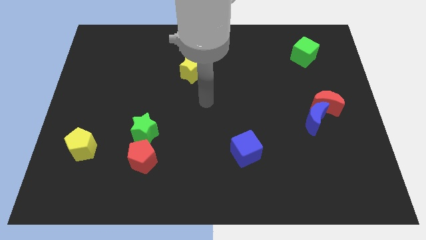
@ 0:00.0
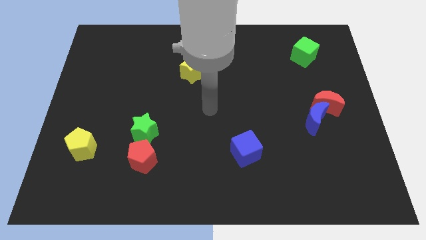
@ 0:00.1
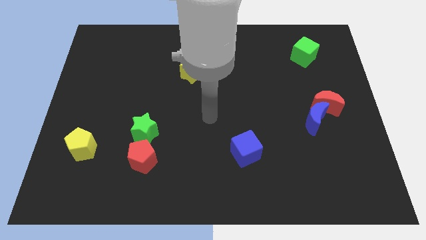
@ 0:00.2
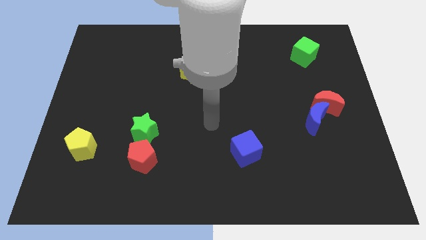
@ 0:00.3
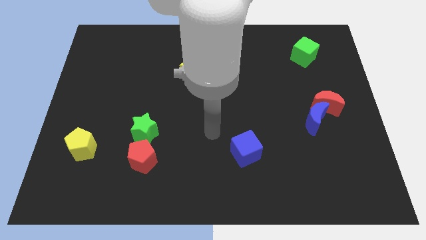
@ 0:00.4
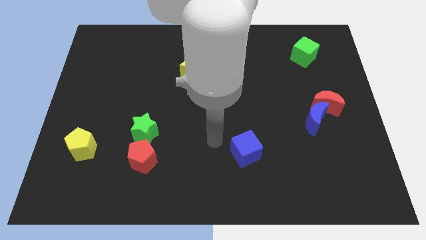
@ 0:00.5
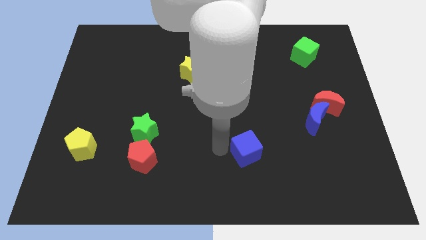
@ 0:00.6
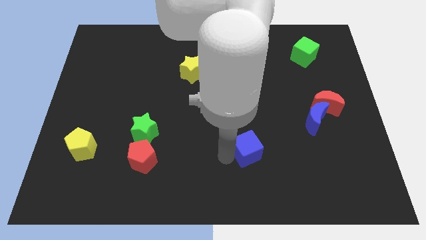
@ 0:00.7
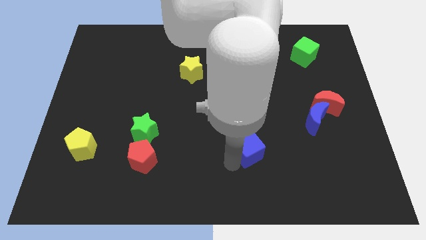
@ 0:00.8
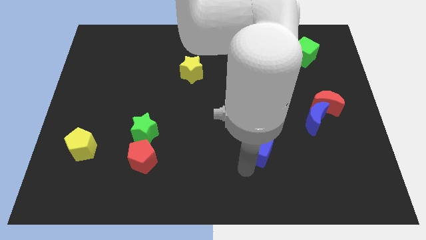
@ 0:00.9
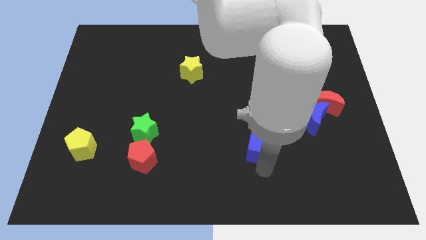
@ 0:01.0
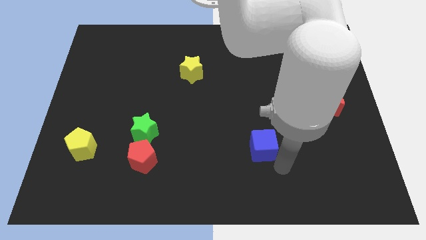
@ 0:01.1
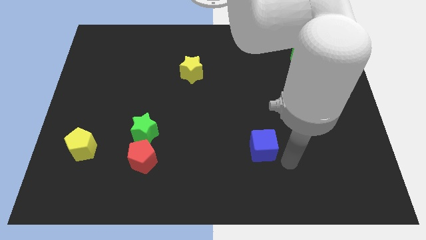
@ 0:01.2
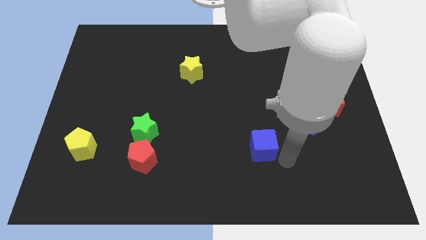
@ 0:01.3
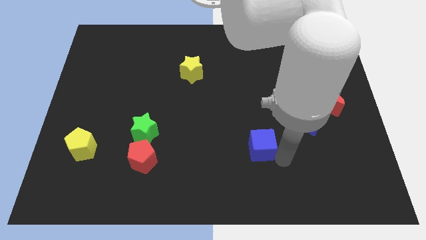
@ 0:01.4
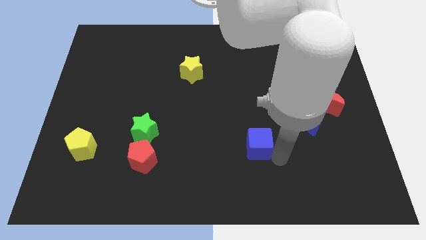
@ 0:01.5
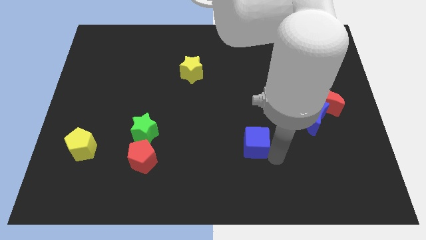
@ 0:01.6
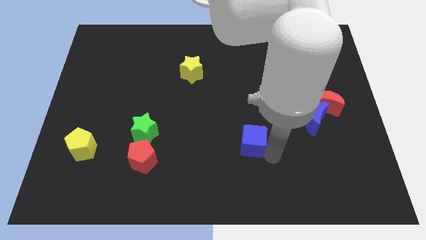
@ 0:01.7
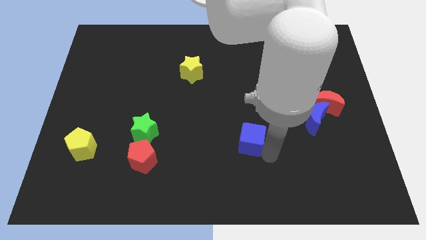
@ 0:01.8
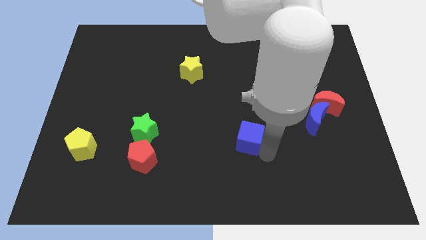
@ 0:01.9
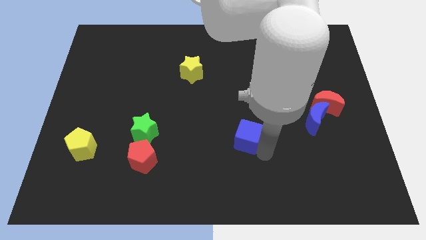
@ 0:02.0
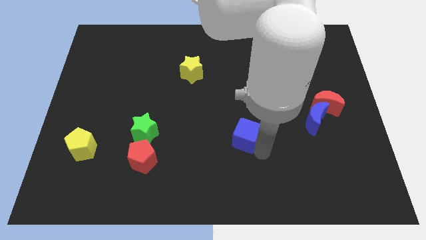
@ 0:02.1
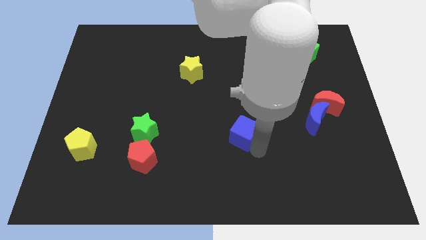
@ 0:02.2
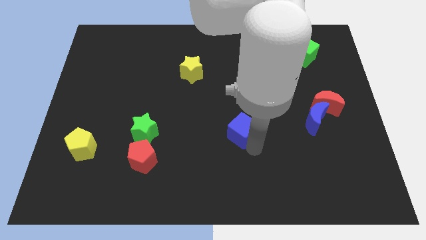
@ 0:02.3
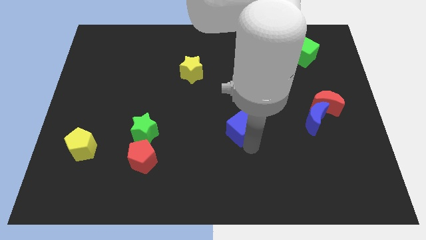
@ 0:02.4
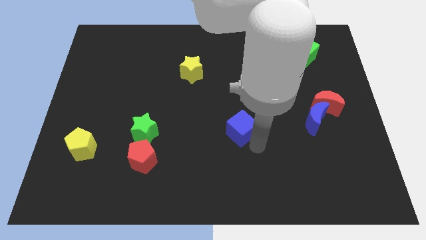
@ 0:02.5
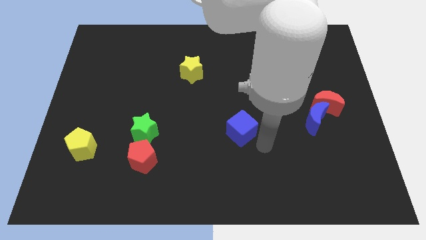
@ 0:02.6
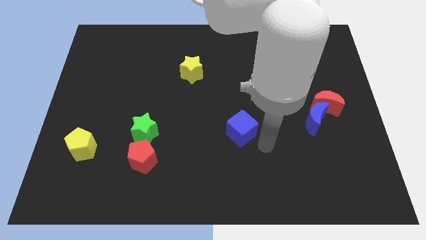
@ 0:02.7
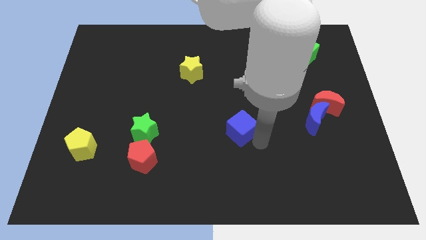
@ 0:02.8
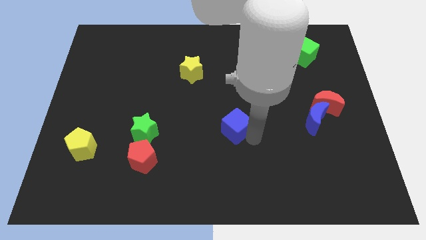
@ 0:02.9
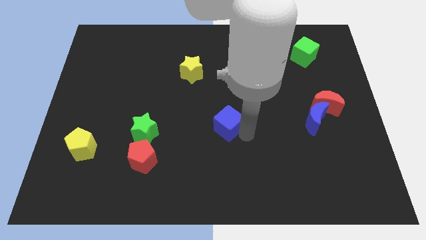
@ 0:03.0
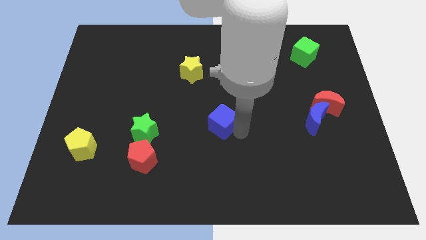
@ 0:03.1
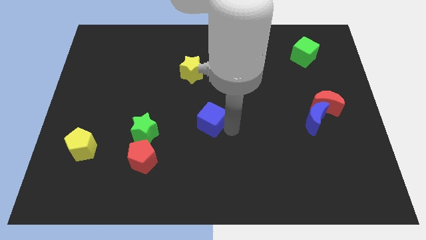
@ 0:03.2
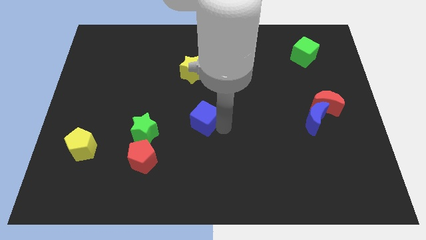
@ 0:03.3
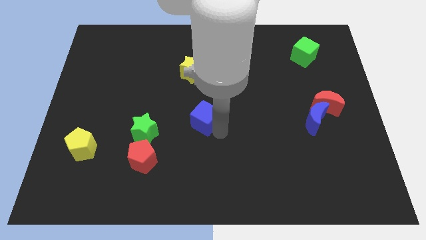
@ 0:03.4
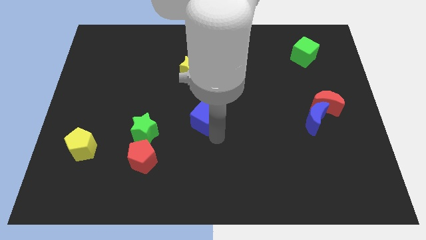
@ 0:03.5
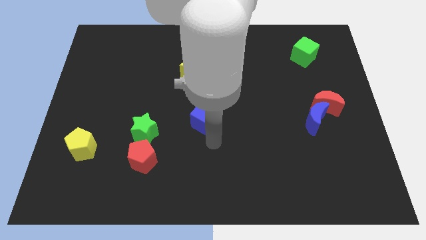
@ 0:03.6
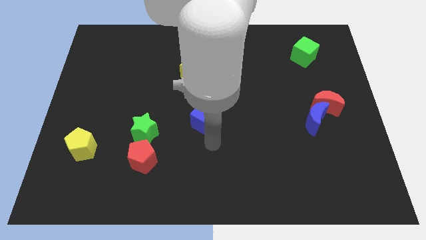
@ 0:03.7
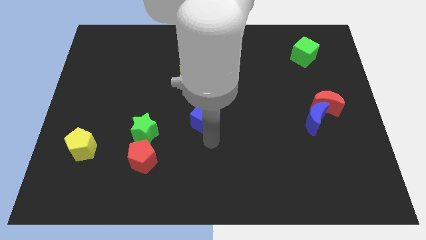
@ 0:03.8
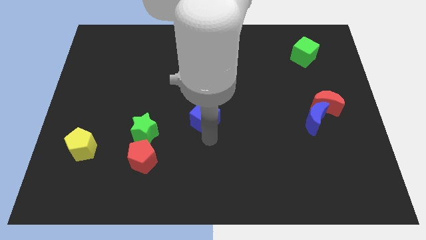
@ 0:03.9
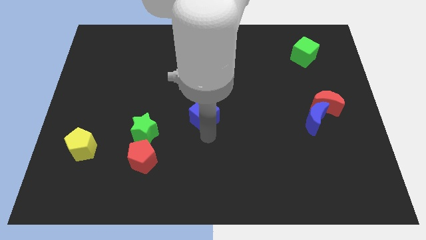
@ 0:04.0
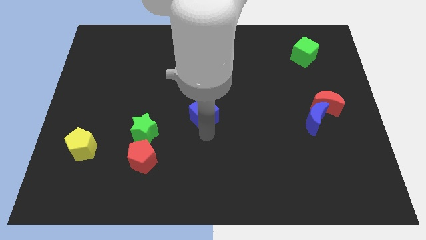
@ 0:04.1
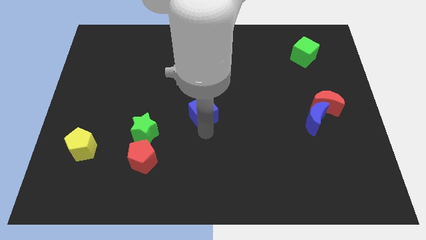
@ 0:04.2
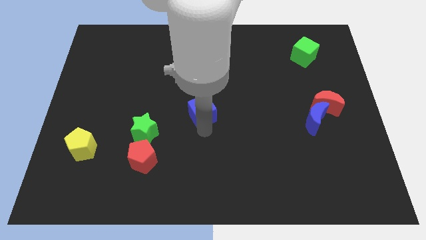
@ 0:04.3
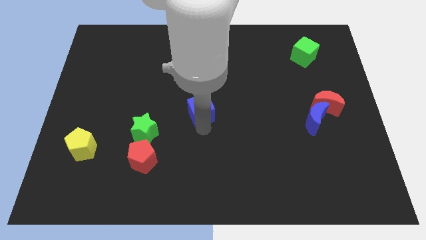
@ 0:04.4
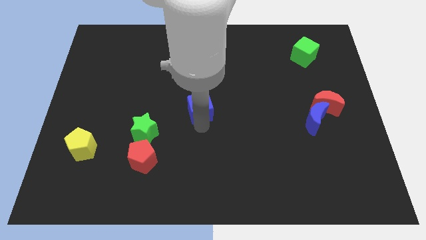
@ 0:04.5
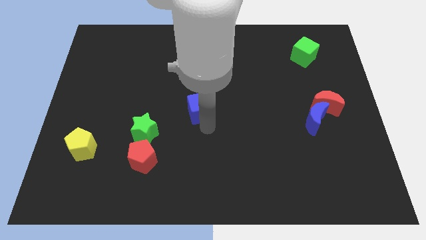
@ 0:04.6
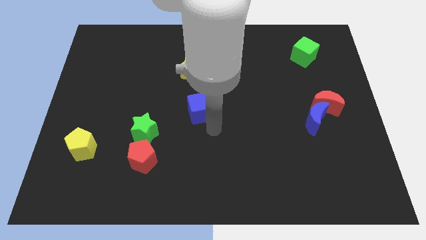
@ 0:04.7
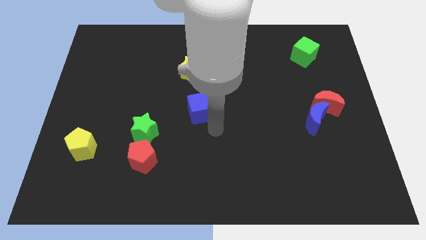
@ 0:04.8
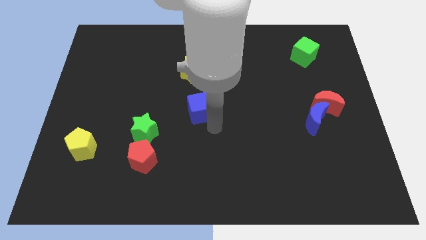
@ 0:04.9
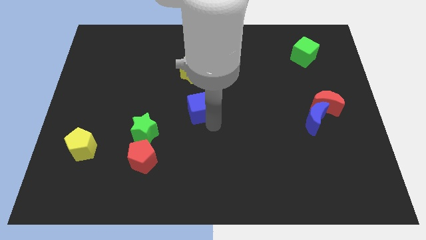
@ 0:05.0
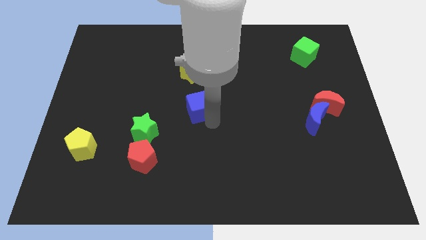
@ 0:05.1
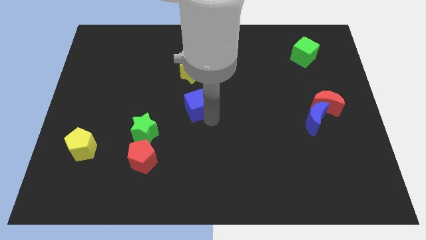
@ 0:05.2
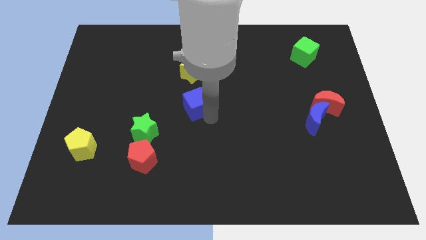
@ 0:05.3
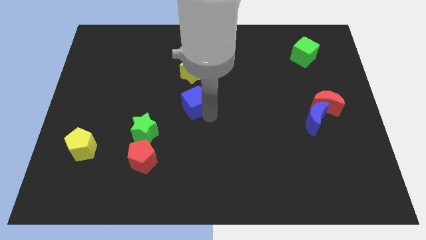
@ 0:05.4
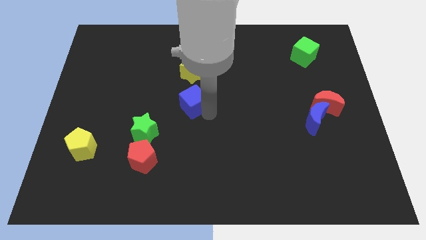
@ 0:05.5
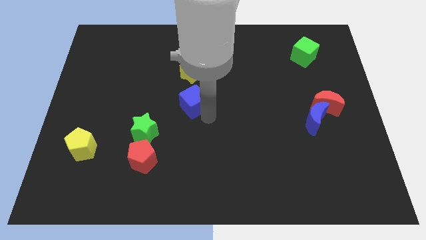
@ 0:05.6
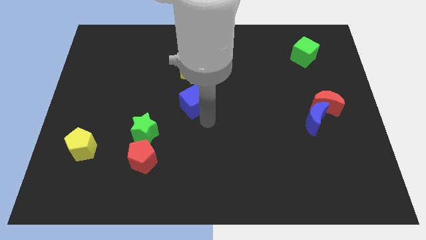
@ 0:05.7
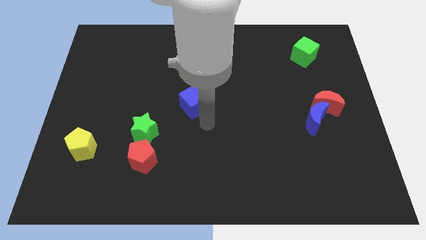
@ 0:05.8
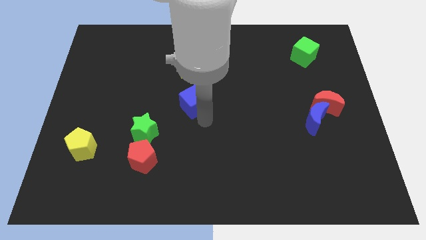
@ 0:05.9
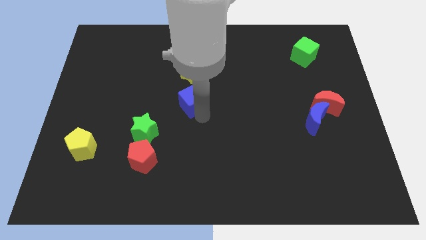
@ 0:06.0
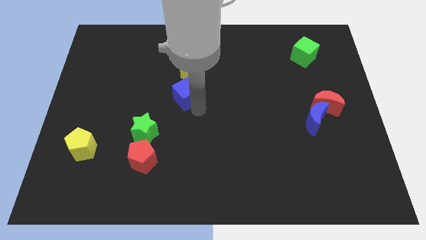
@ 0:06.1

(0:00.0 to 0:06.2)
slide the blue cube upwards and to the left diagonally

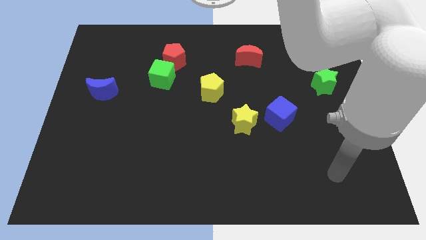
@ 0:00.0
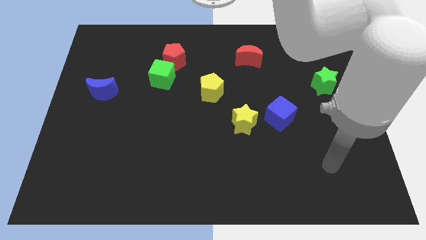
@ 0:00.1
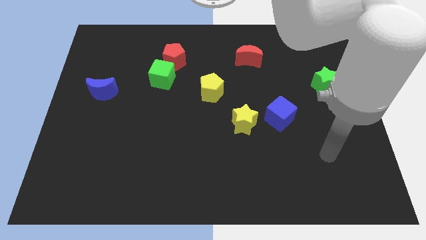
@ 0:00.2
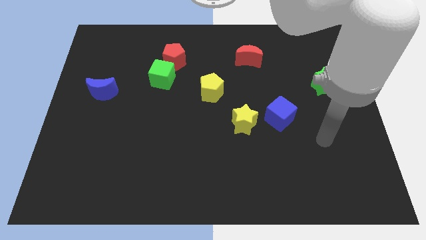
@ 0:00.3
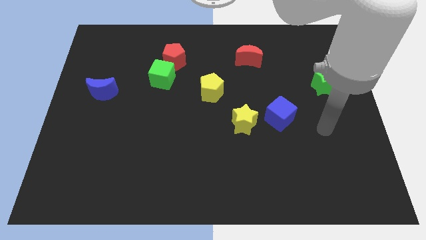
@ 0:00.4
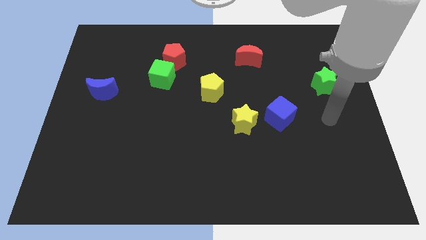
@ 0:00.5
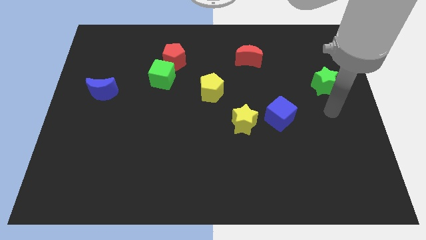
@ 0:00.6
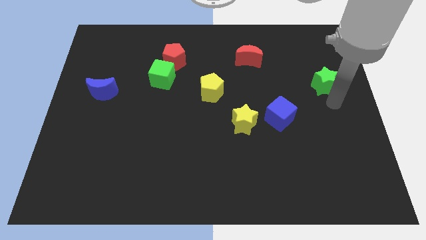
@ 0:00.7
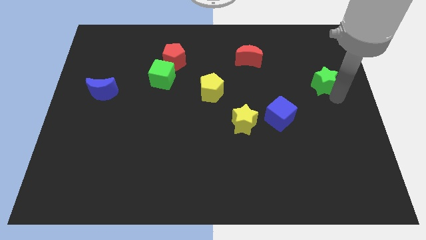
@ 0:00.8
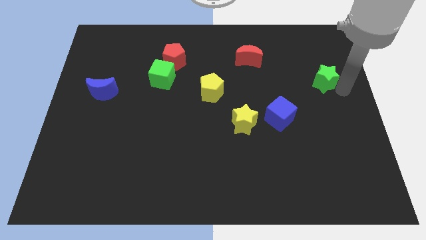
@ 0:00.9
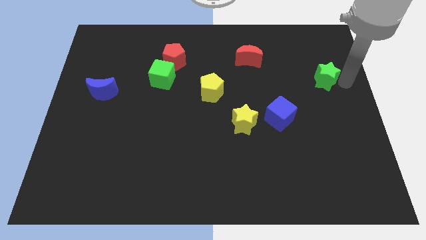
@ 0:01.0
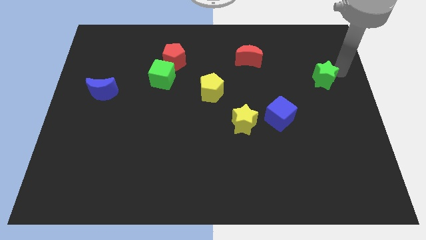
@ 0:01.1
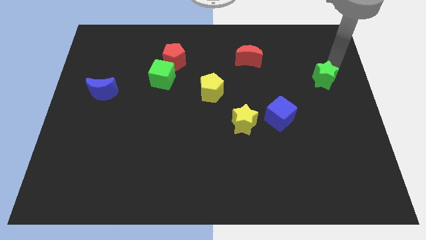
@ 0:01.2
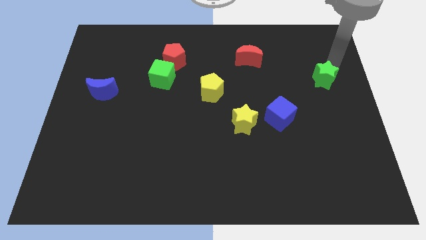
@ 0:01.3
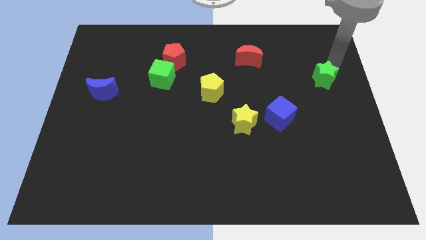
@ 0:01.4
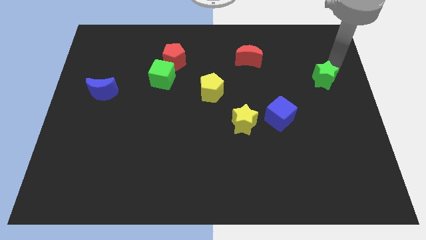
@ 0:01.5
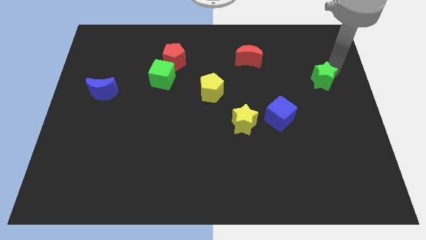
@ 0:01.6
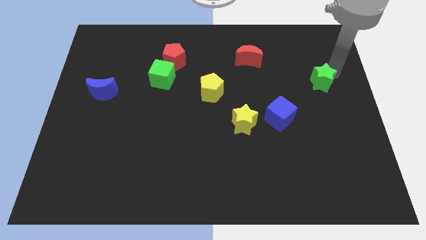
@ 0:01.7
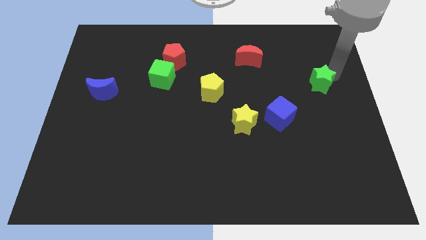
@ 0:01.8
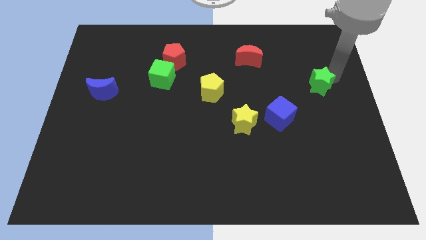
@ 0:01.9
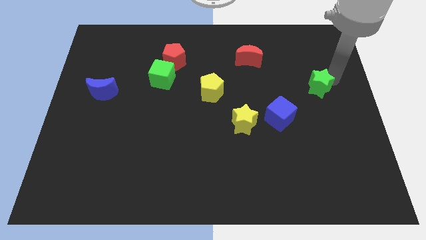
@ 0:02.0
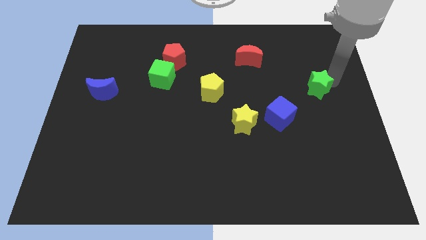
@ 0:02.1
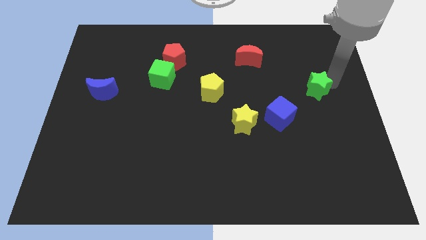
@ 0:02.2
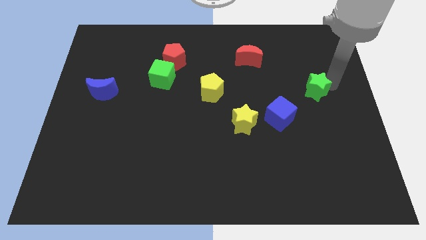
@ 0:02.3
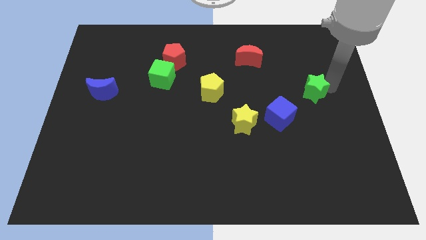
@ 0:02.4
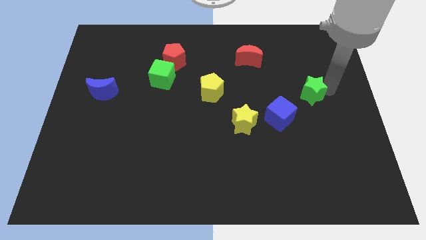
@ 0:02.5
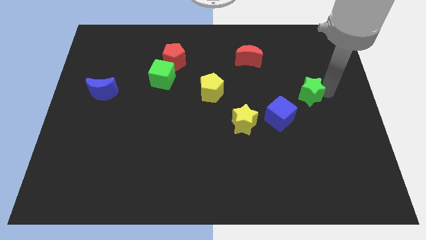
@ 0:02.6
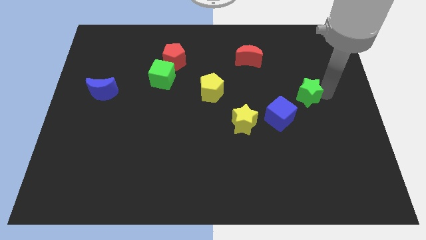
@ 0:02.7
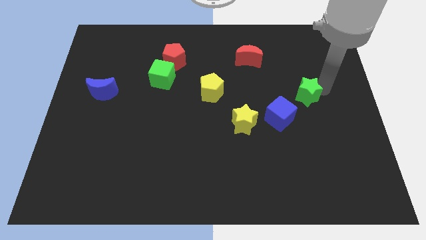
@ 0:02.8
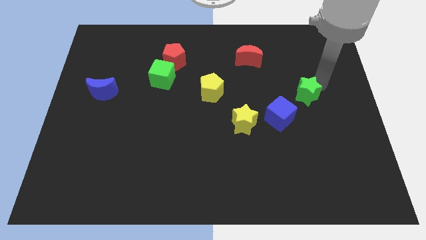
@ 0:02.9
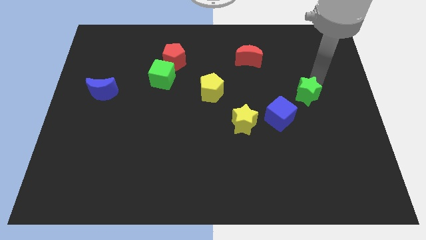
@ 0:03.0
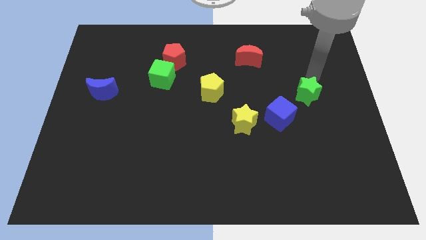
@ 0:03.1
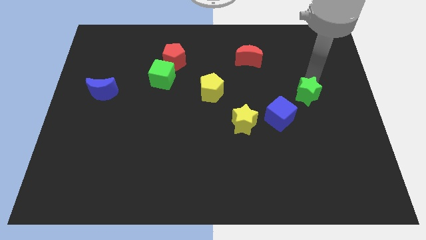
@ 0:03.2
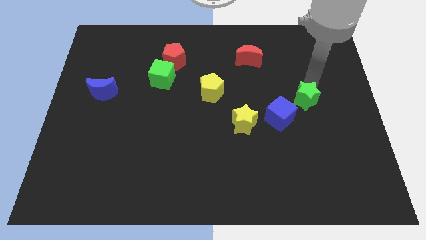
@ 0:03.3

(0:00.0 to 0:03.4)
move the green star down and then to the left slightly
